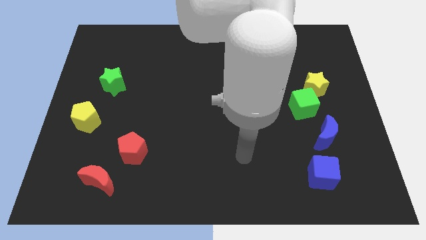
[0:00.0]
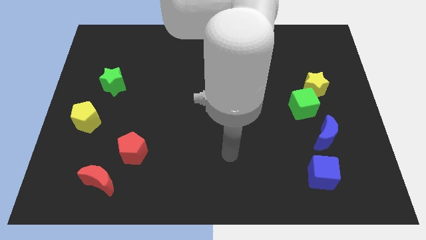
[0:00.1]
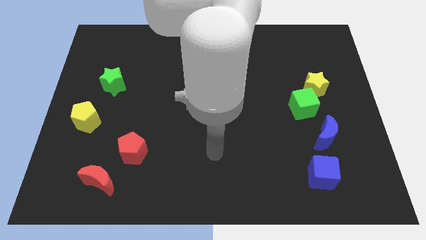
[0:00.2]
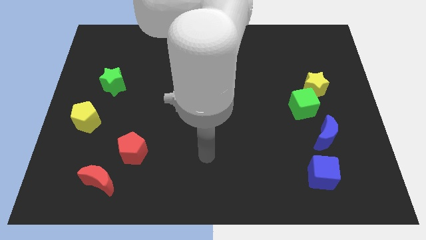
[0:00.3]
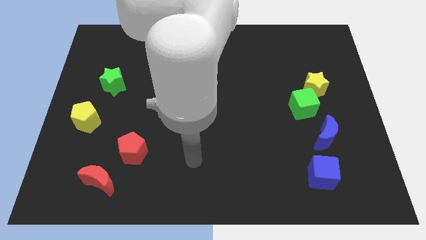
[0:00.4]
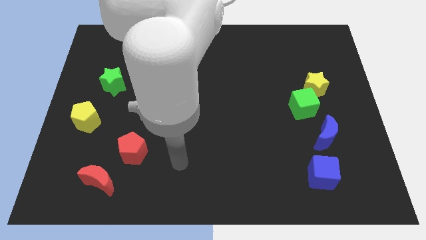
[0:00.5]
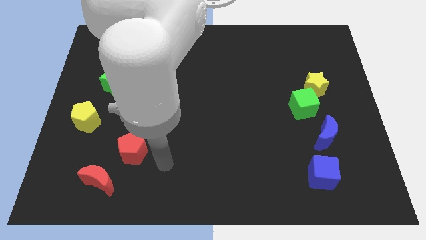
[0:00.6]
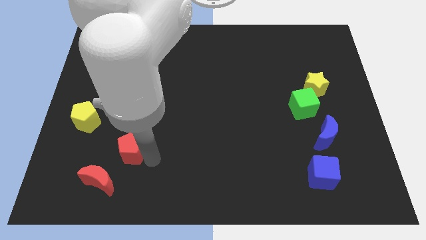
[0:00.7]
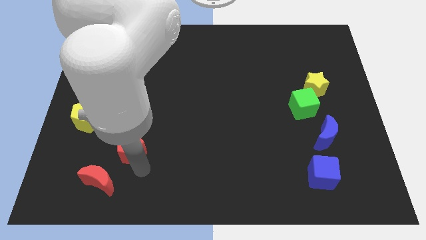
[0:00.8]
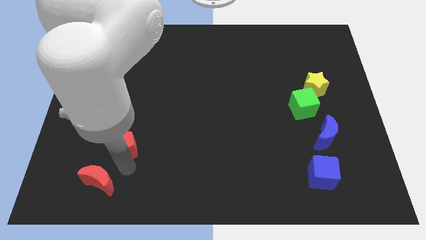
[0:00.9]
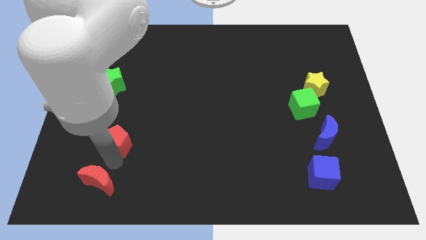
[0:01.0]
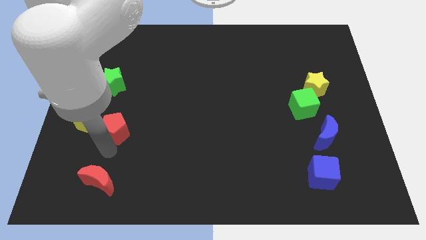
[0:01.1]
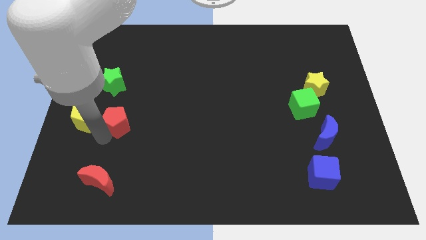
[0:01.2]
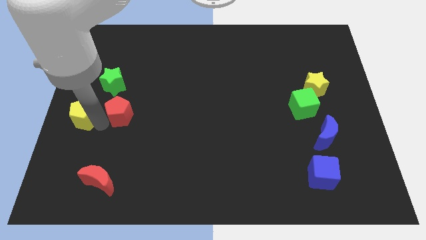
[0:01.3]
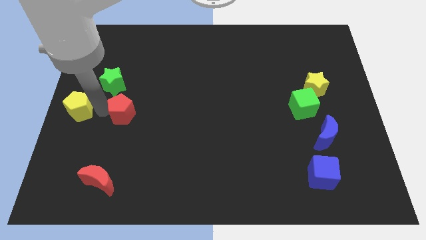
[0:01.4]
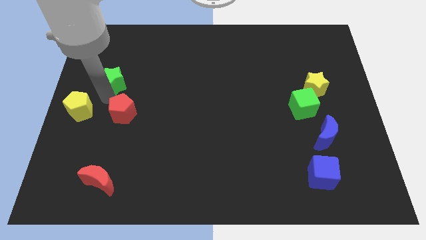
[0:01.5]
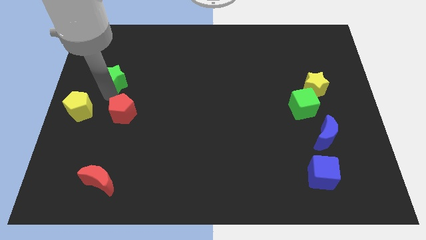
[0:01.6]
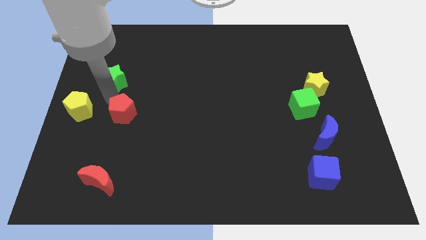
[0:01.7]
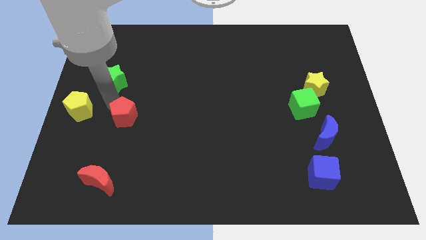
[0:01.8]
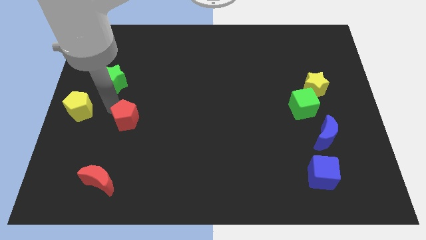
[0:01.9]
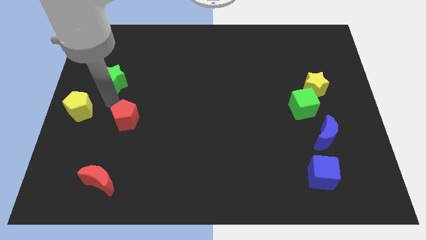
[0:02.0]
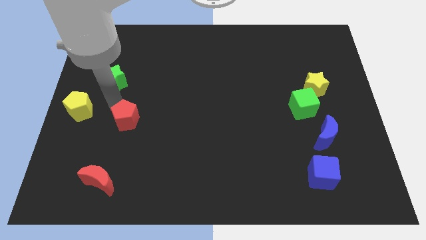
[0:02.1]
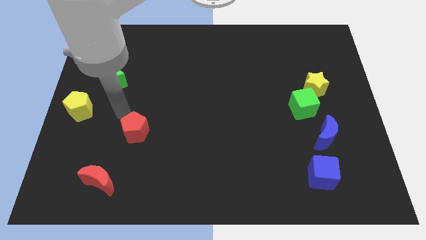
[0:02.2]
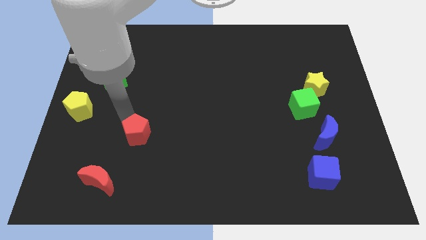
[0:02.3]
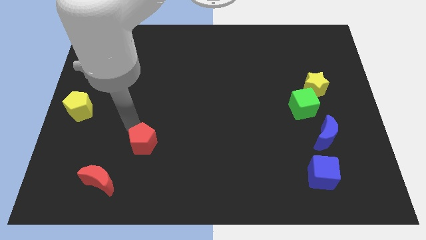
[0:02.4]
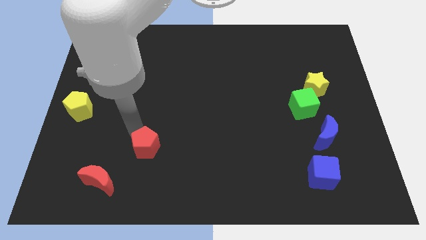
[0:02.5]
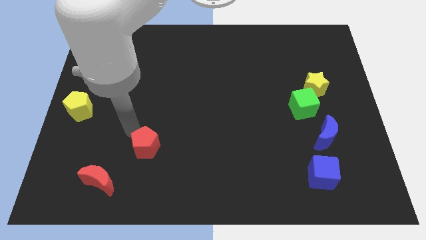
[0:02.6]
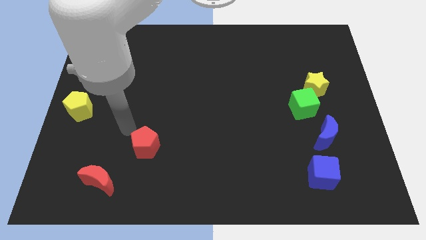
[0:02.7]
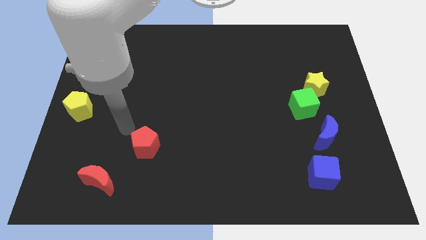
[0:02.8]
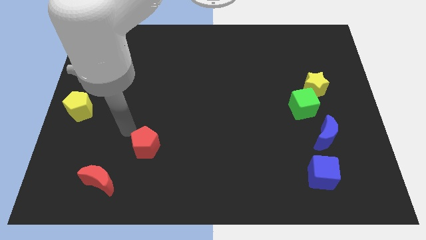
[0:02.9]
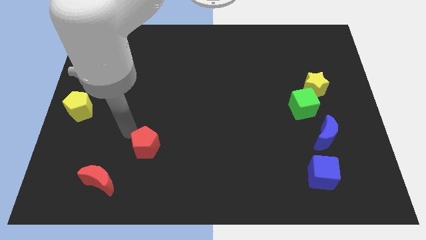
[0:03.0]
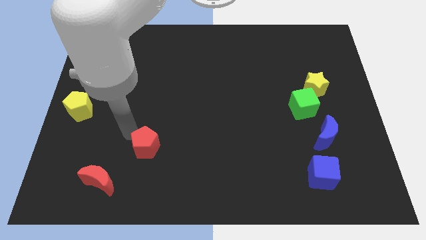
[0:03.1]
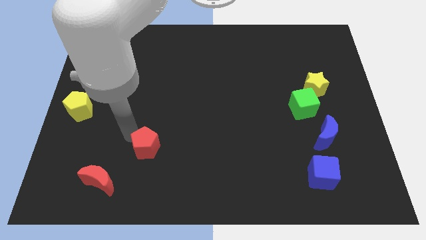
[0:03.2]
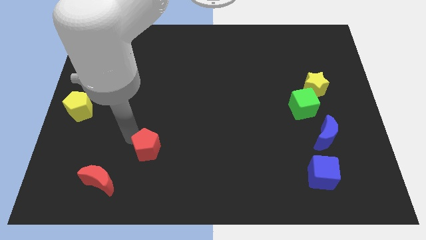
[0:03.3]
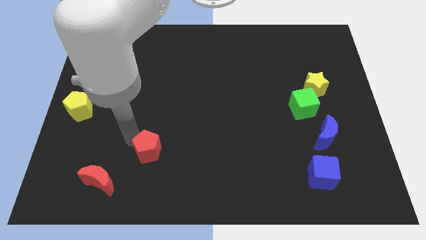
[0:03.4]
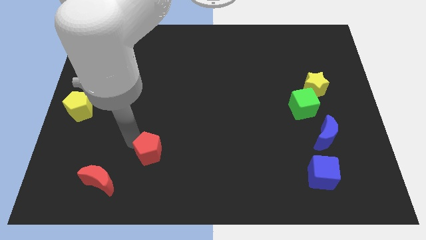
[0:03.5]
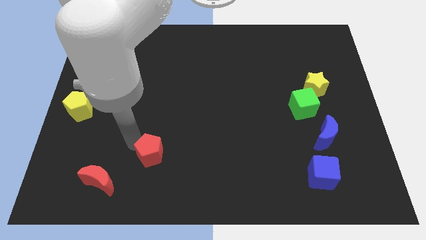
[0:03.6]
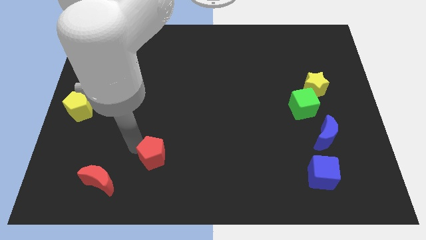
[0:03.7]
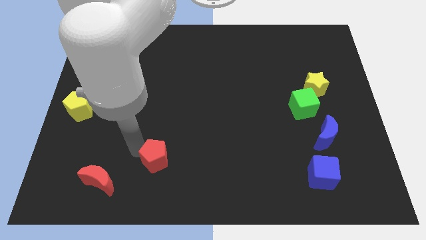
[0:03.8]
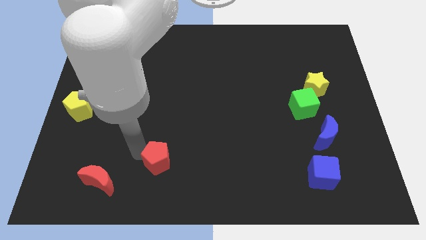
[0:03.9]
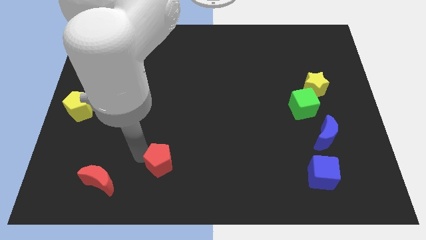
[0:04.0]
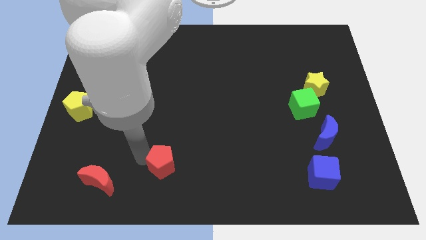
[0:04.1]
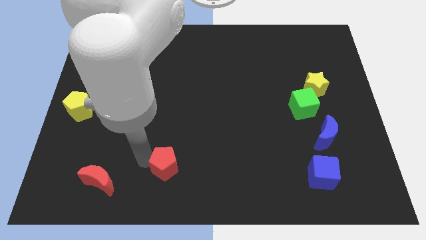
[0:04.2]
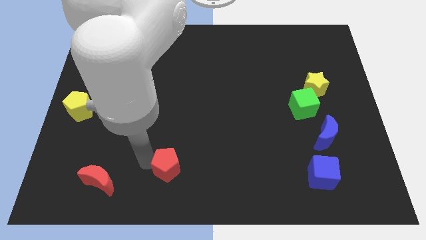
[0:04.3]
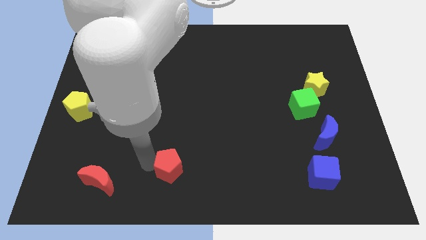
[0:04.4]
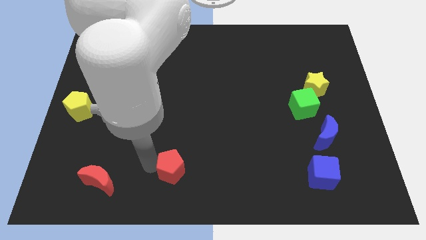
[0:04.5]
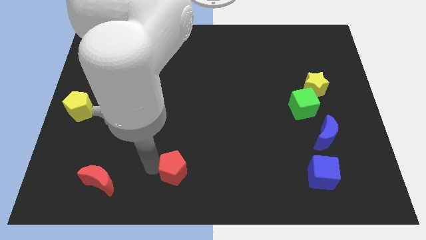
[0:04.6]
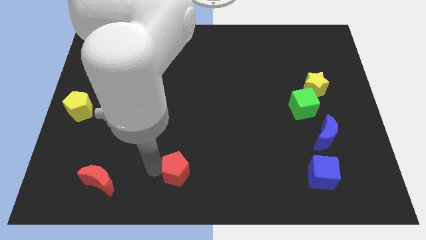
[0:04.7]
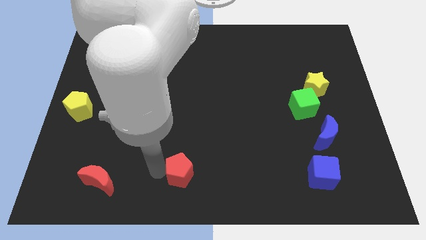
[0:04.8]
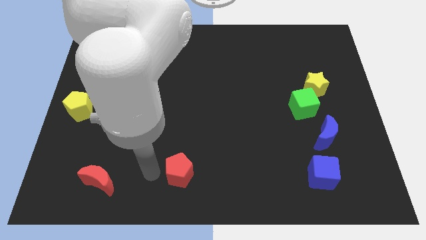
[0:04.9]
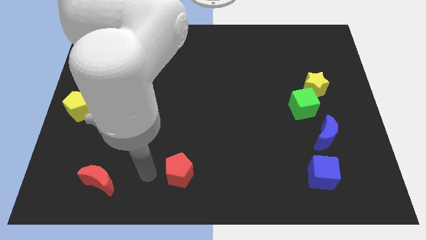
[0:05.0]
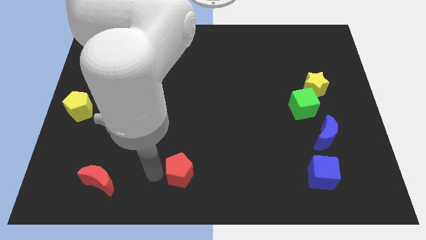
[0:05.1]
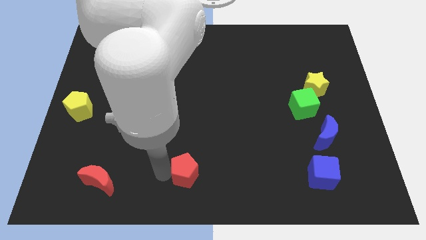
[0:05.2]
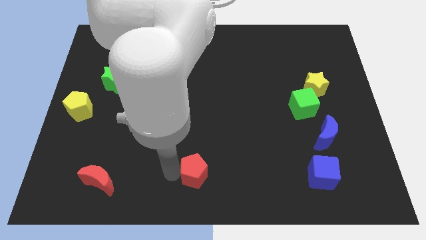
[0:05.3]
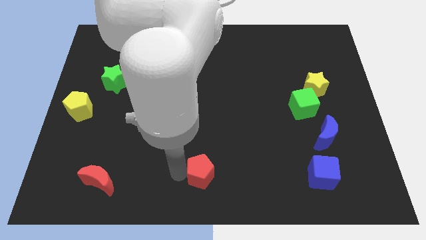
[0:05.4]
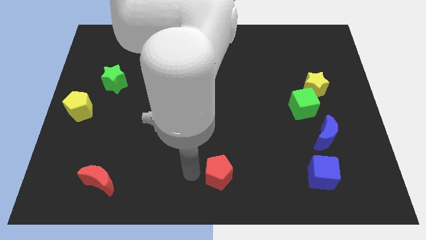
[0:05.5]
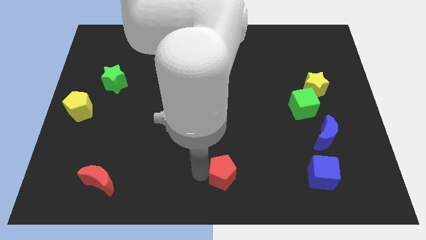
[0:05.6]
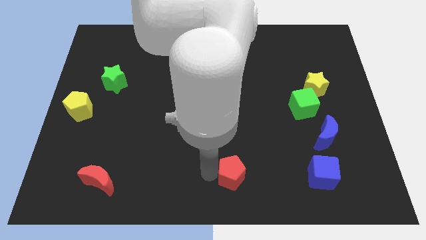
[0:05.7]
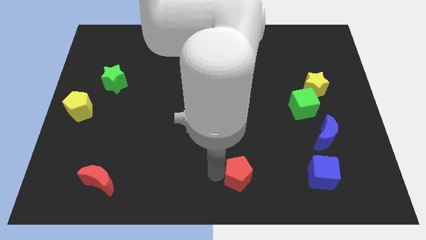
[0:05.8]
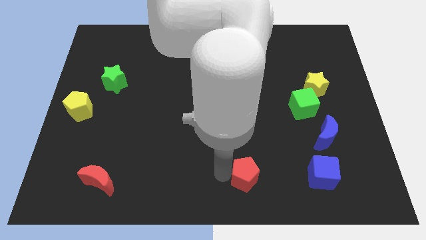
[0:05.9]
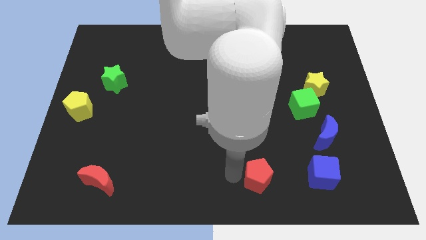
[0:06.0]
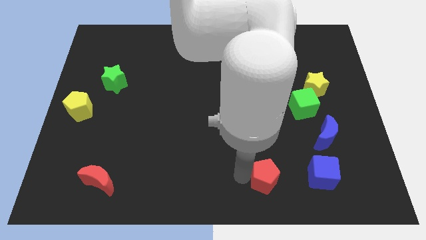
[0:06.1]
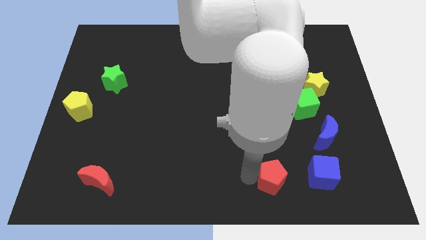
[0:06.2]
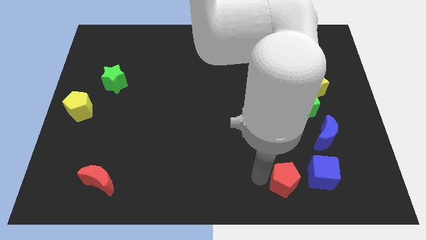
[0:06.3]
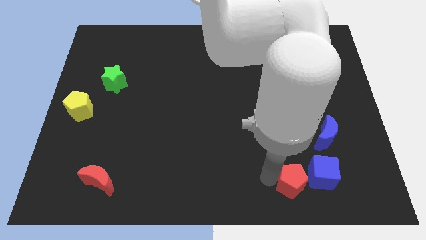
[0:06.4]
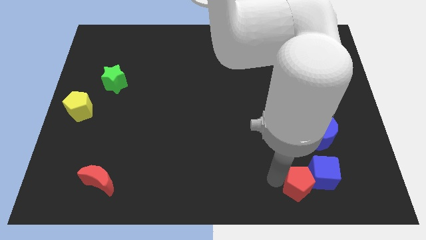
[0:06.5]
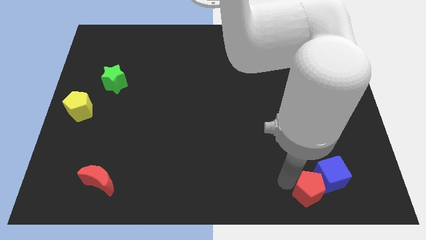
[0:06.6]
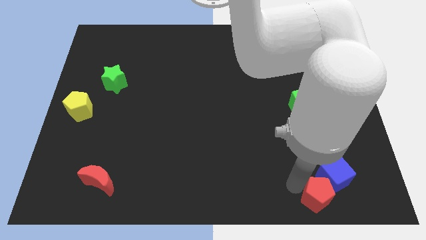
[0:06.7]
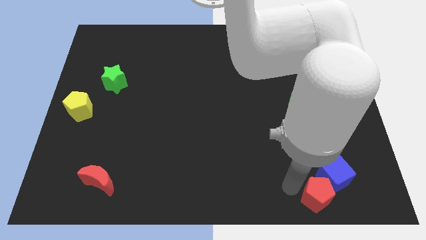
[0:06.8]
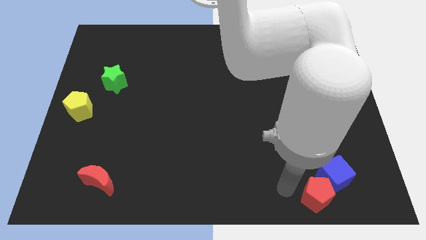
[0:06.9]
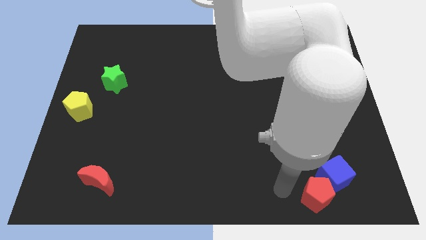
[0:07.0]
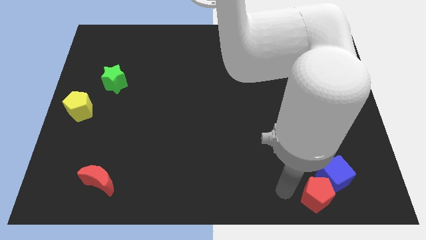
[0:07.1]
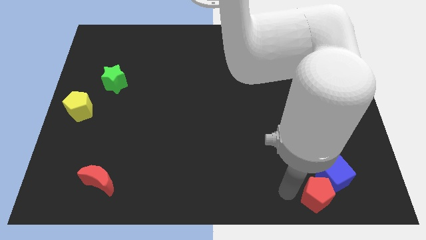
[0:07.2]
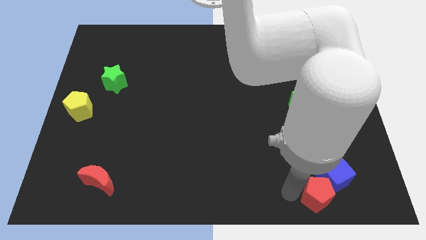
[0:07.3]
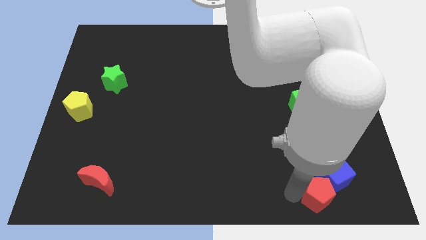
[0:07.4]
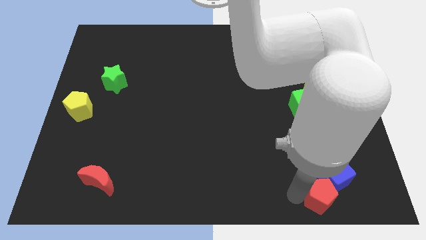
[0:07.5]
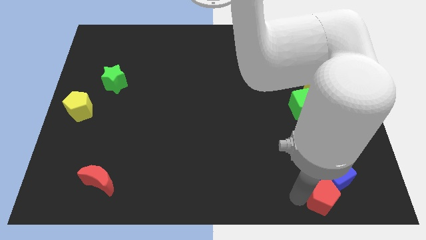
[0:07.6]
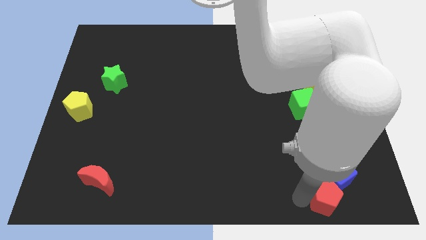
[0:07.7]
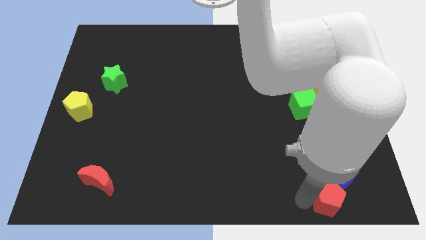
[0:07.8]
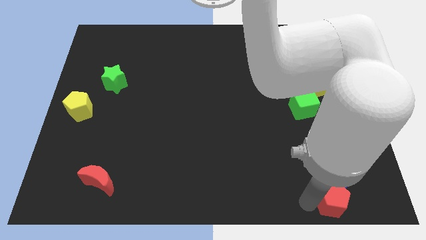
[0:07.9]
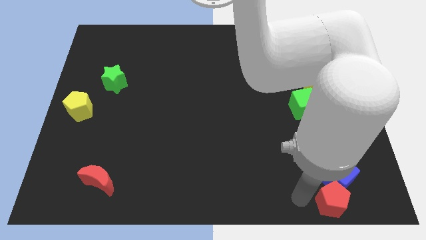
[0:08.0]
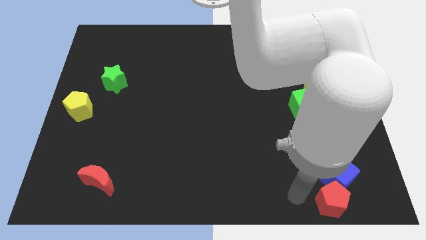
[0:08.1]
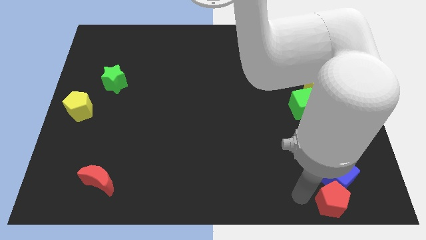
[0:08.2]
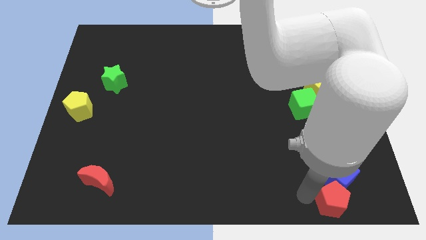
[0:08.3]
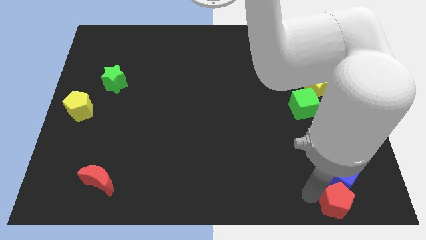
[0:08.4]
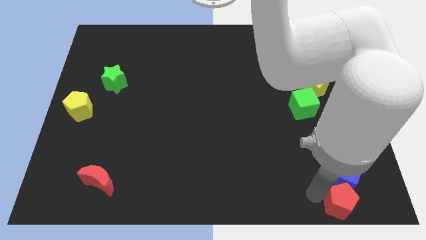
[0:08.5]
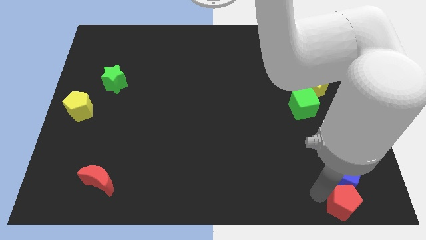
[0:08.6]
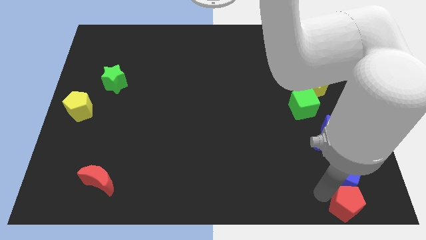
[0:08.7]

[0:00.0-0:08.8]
push the red pentagon to the bottom right

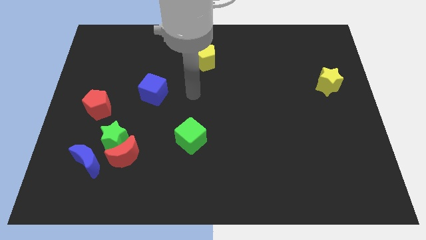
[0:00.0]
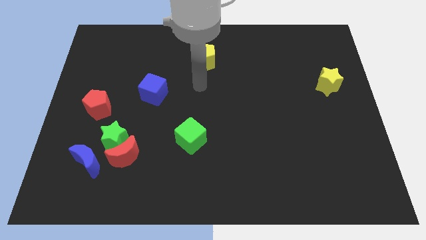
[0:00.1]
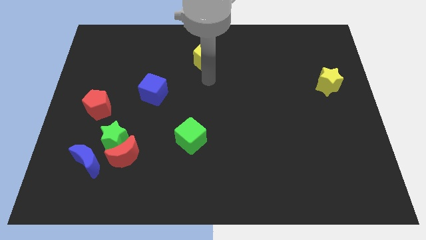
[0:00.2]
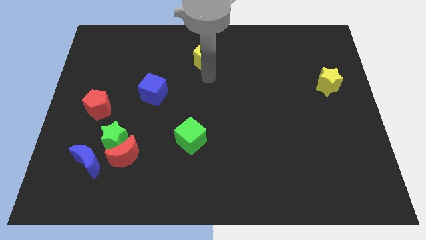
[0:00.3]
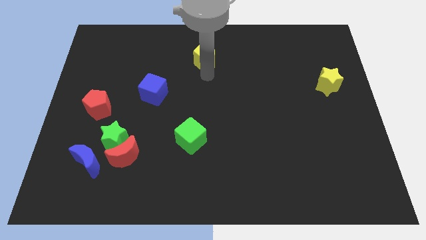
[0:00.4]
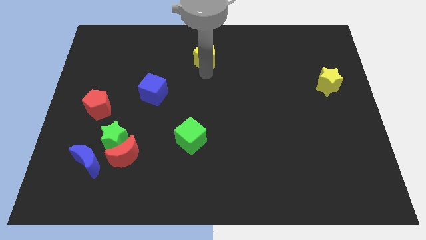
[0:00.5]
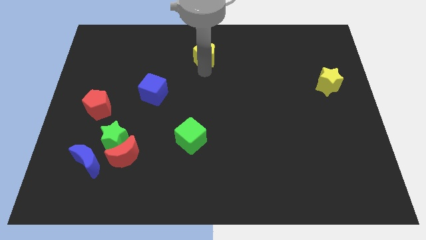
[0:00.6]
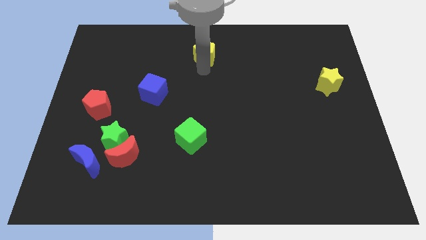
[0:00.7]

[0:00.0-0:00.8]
slide the yellow pentagon to the top side
